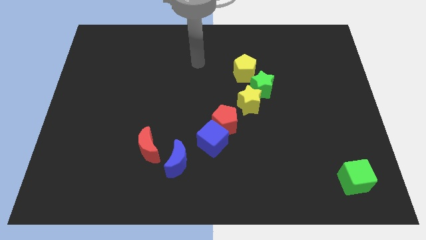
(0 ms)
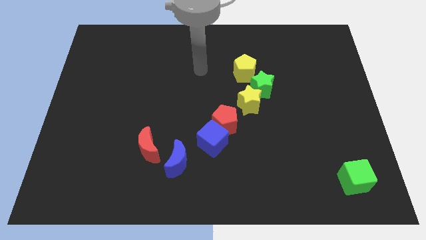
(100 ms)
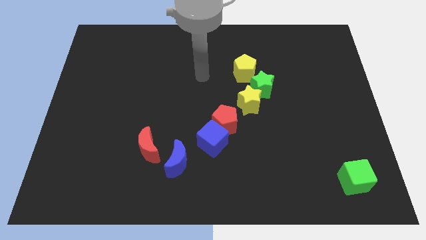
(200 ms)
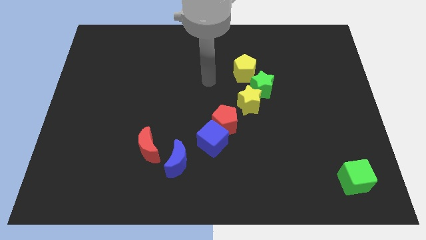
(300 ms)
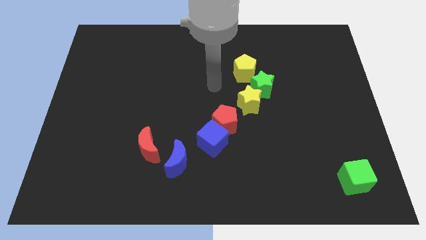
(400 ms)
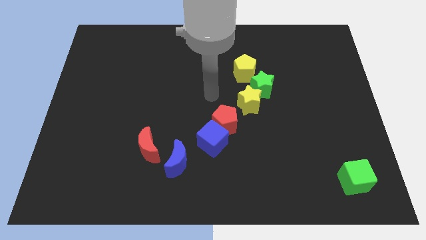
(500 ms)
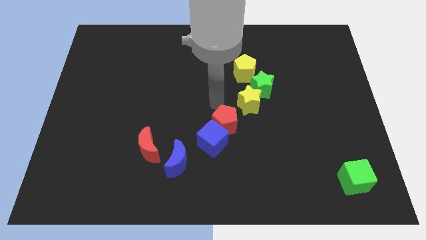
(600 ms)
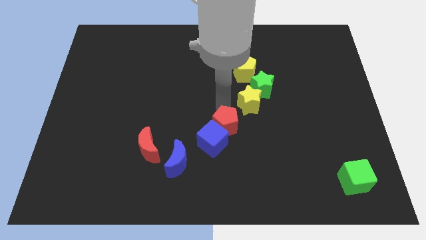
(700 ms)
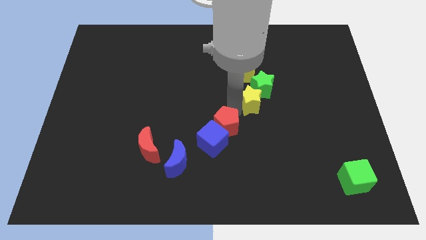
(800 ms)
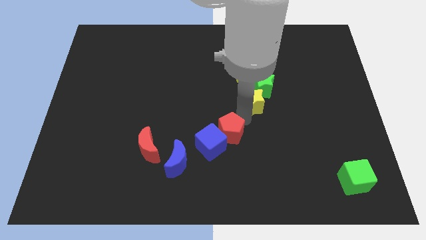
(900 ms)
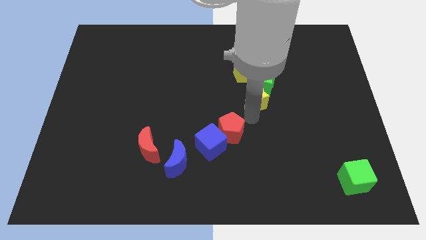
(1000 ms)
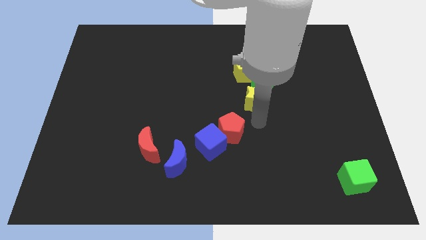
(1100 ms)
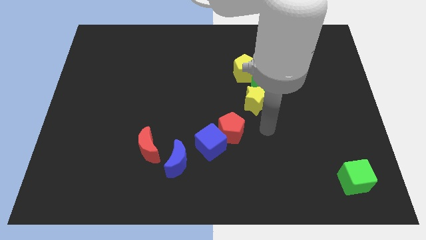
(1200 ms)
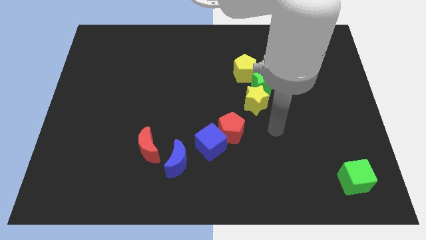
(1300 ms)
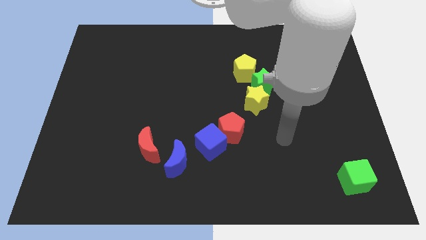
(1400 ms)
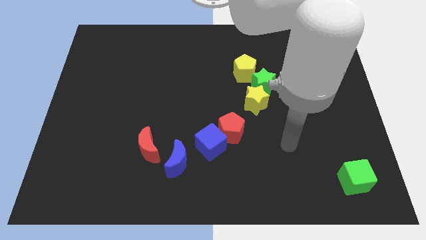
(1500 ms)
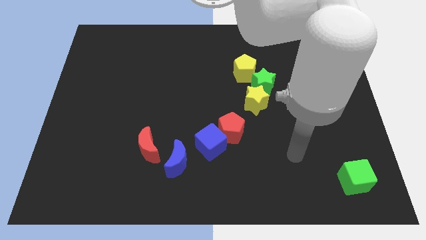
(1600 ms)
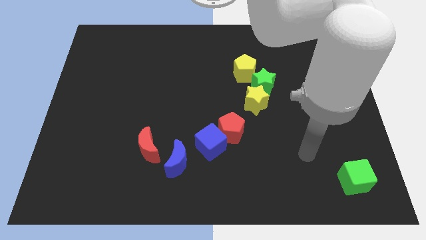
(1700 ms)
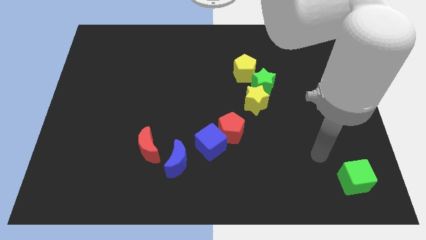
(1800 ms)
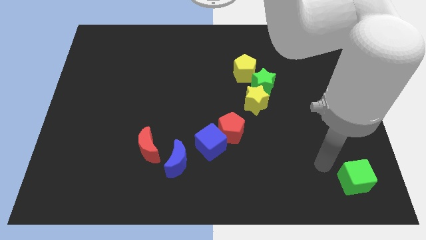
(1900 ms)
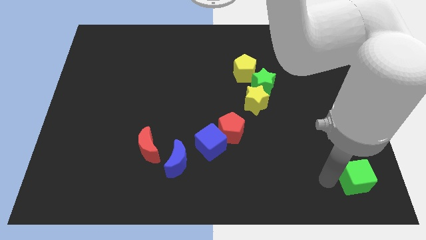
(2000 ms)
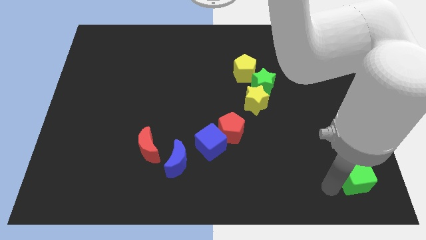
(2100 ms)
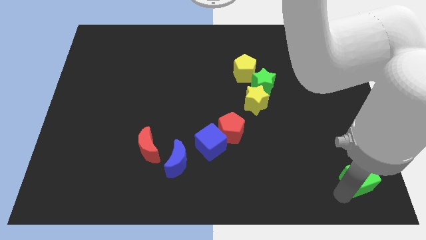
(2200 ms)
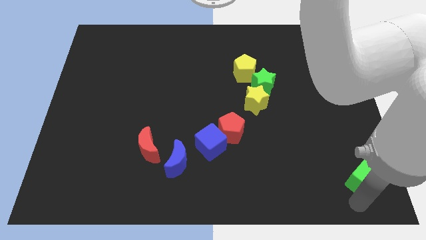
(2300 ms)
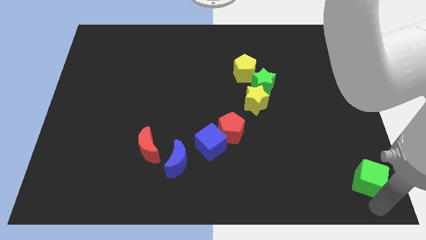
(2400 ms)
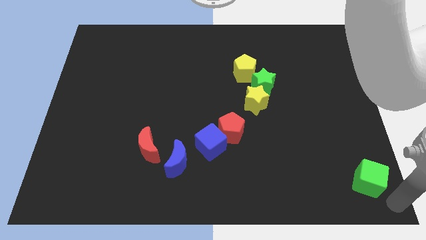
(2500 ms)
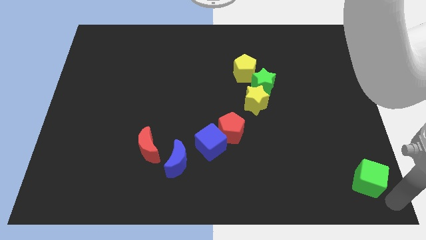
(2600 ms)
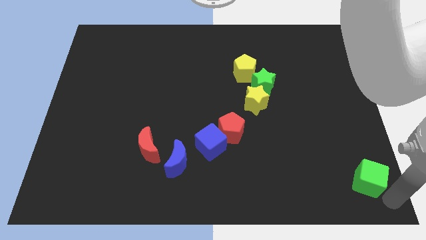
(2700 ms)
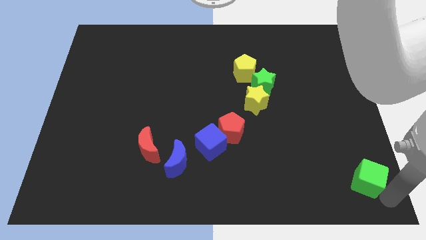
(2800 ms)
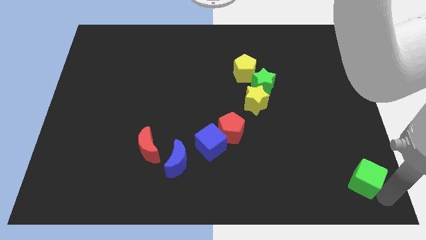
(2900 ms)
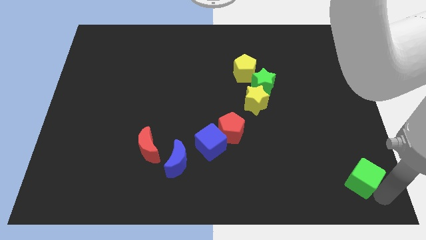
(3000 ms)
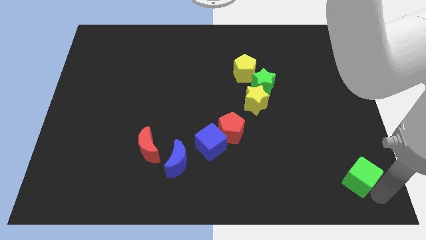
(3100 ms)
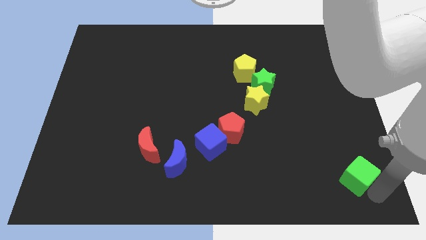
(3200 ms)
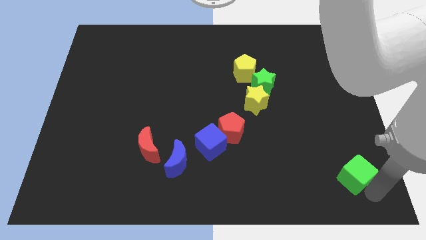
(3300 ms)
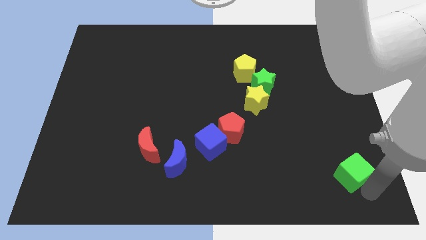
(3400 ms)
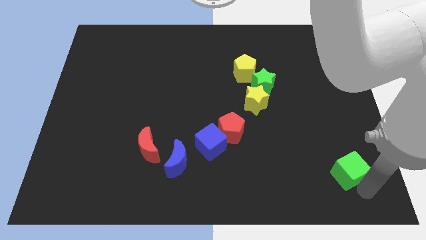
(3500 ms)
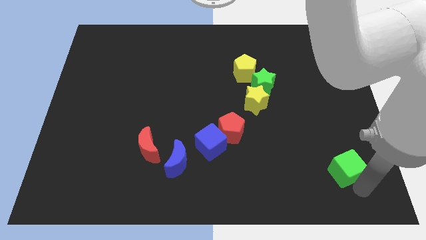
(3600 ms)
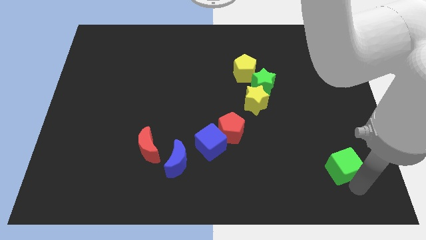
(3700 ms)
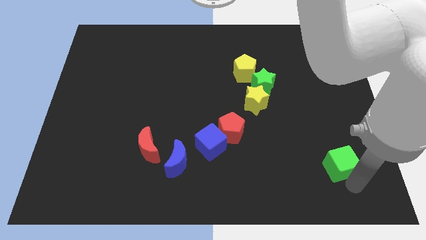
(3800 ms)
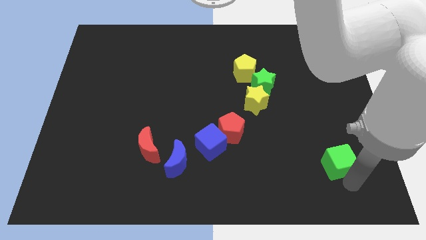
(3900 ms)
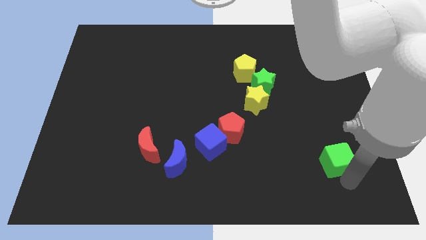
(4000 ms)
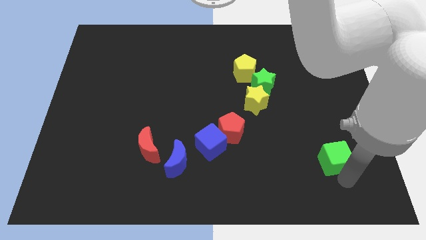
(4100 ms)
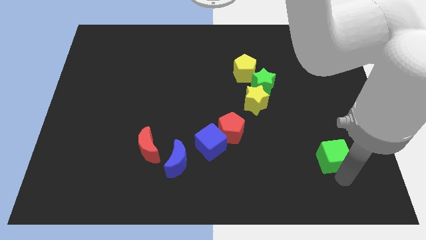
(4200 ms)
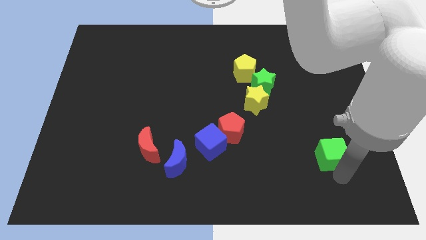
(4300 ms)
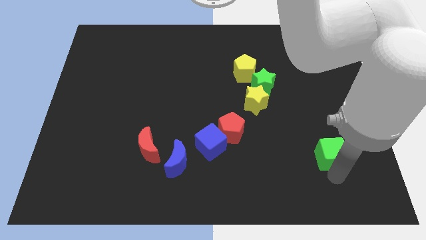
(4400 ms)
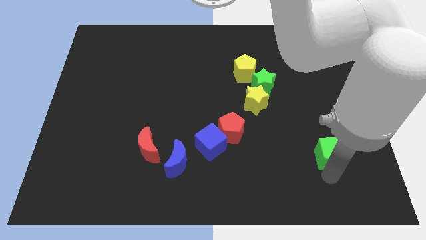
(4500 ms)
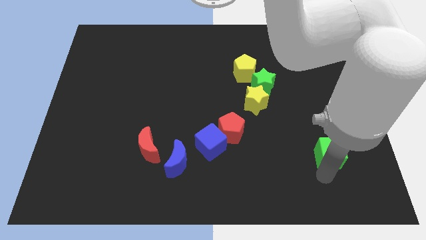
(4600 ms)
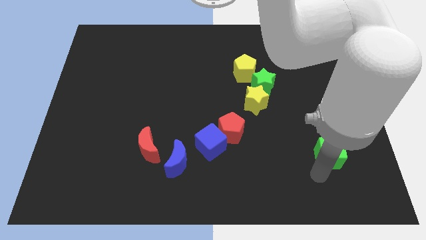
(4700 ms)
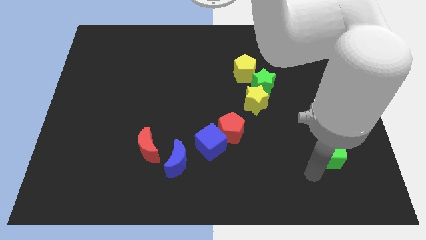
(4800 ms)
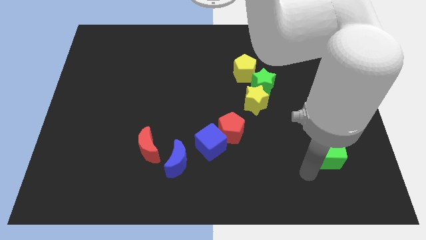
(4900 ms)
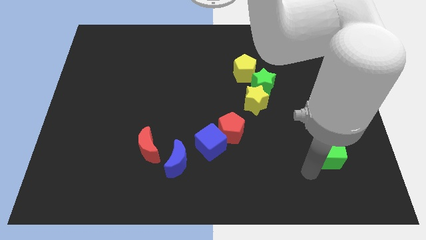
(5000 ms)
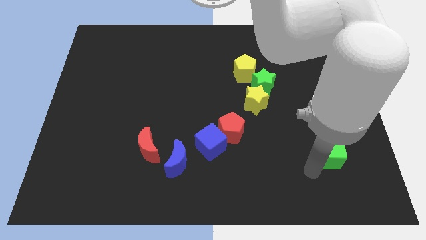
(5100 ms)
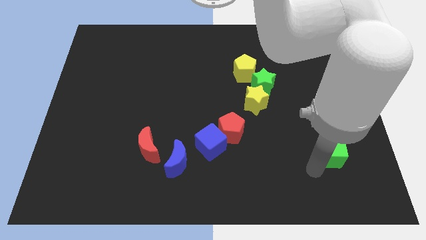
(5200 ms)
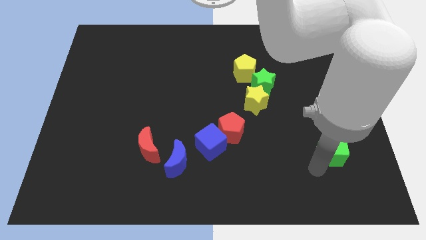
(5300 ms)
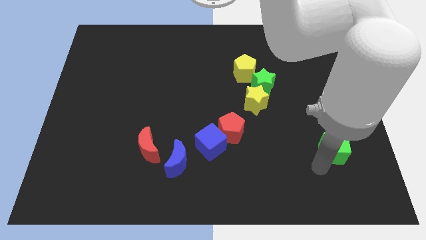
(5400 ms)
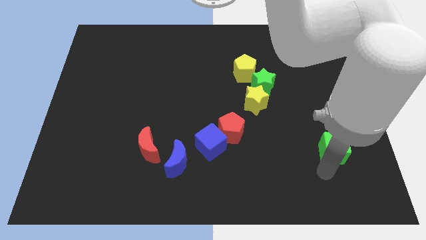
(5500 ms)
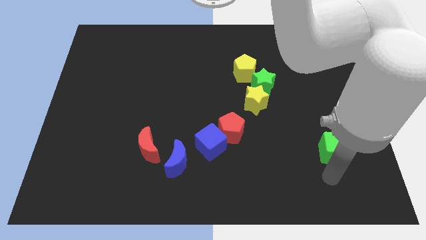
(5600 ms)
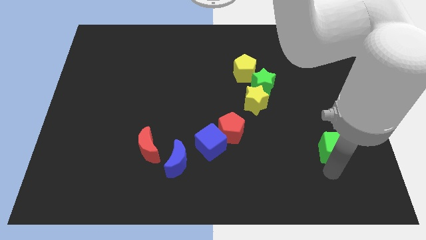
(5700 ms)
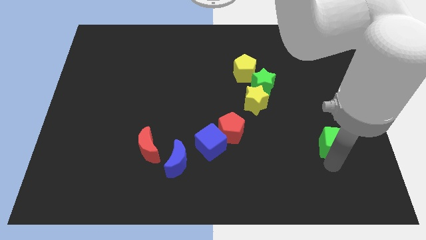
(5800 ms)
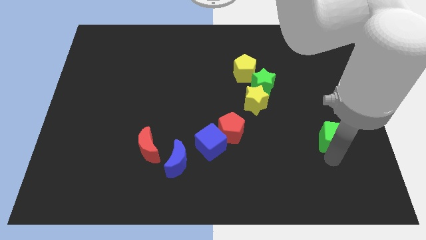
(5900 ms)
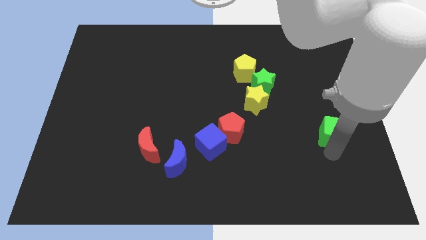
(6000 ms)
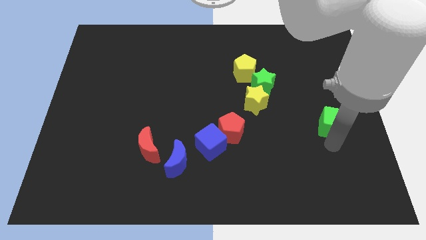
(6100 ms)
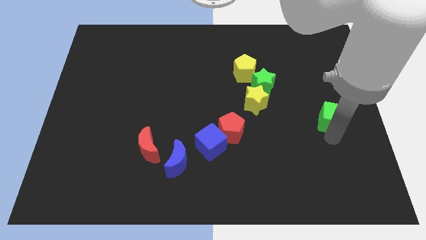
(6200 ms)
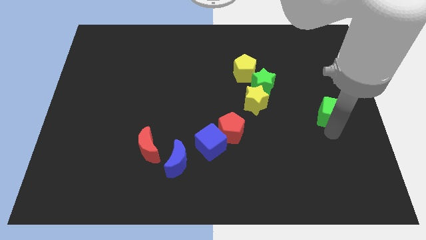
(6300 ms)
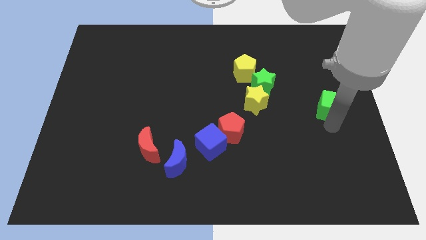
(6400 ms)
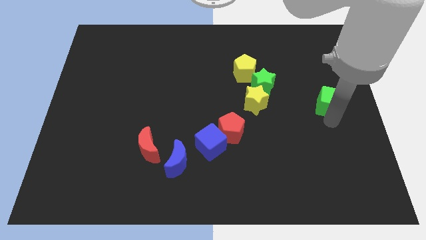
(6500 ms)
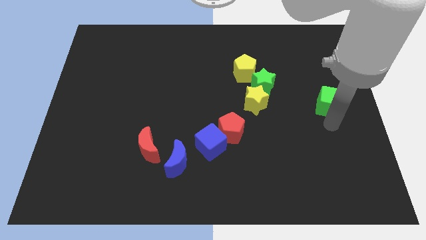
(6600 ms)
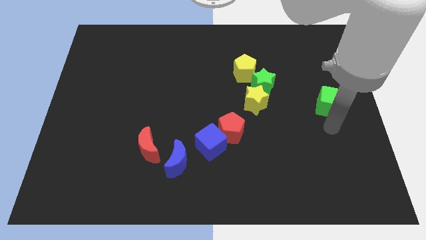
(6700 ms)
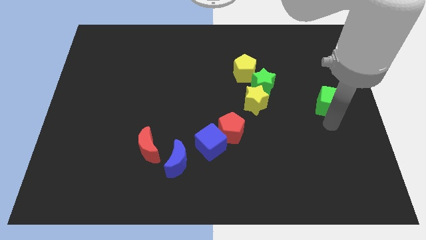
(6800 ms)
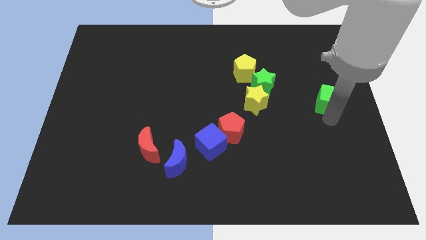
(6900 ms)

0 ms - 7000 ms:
push the green cube up

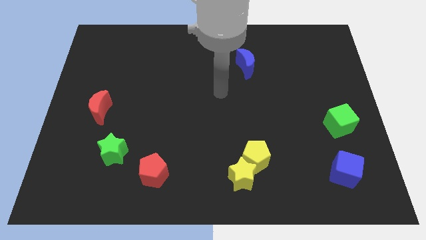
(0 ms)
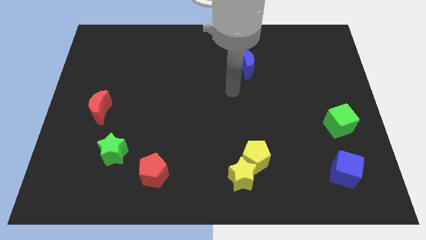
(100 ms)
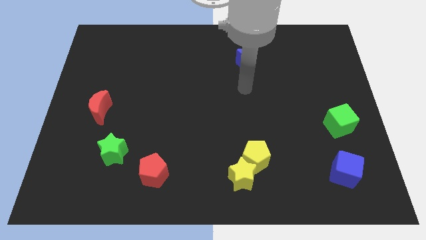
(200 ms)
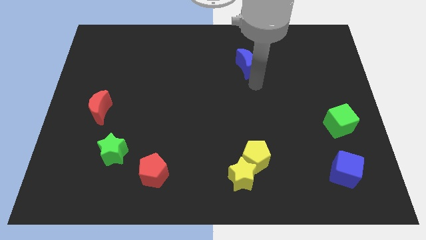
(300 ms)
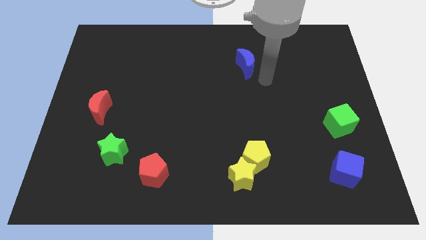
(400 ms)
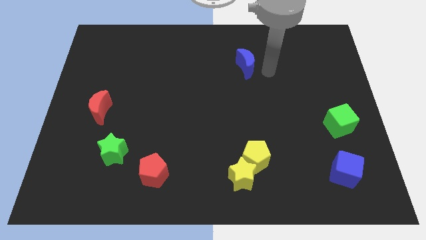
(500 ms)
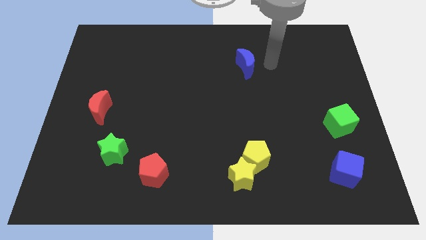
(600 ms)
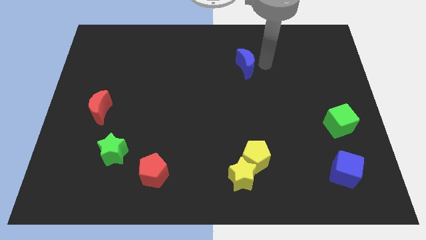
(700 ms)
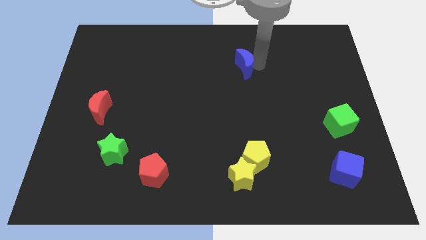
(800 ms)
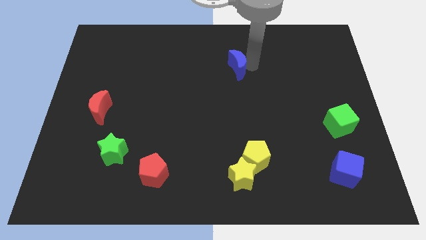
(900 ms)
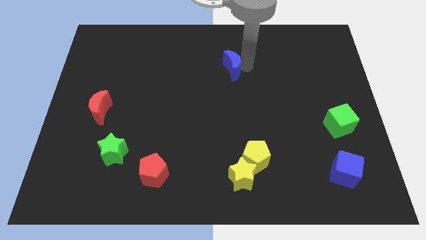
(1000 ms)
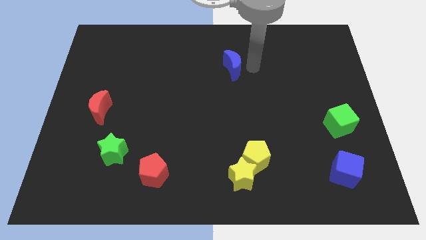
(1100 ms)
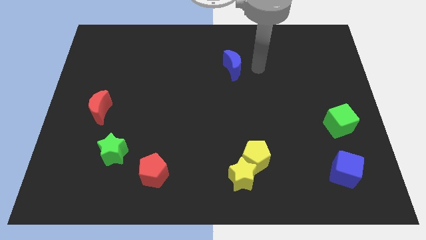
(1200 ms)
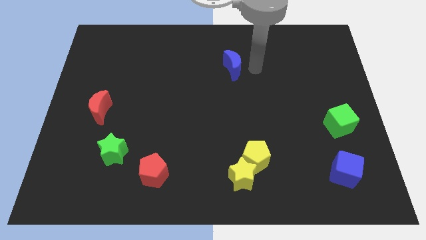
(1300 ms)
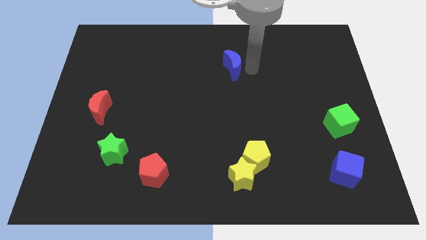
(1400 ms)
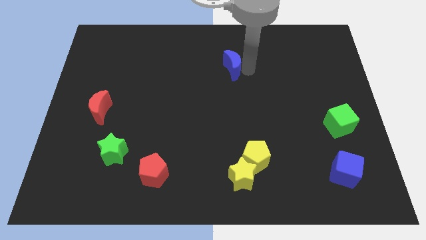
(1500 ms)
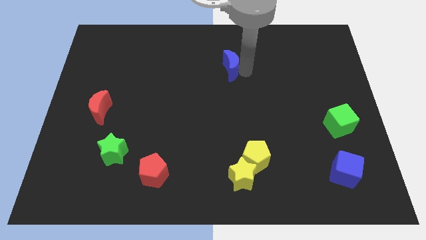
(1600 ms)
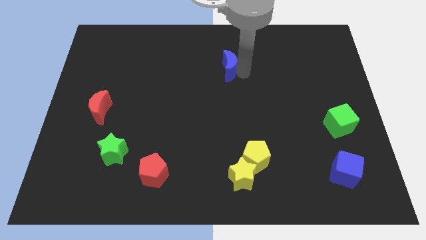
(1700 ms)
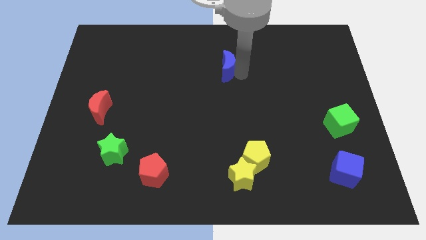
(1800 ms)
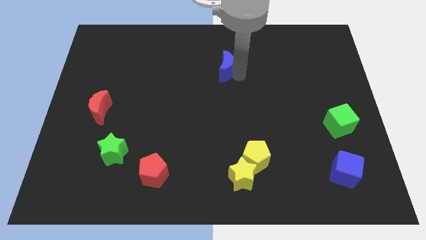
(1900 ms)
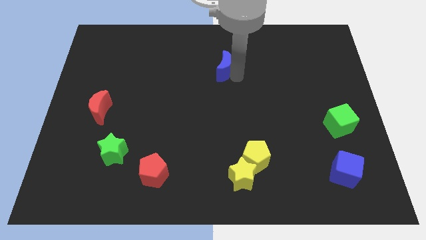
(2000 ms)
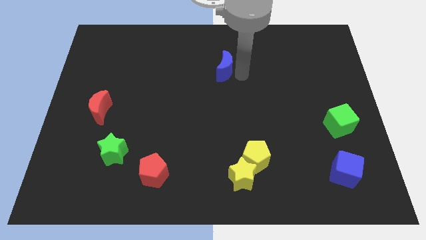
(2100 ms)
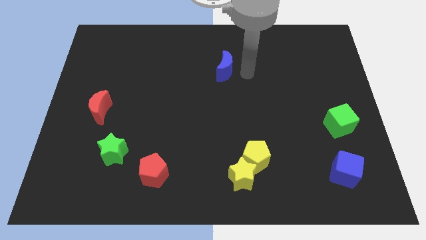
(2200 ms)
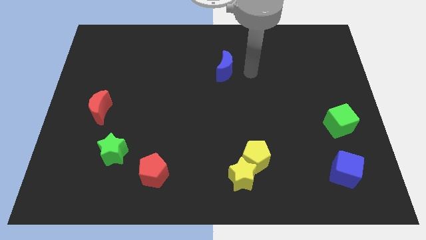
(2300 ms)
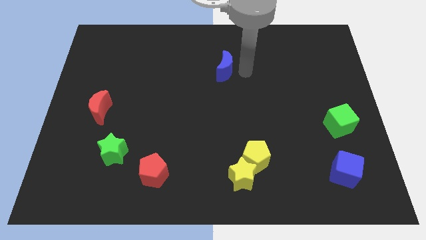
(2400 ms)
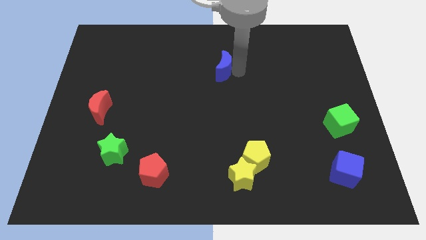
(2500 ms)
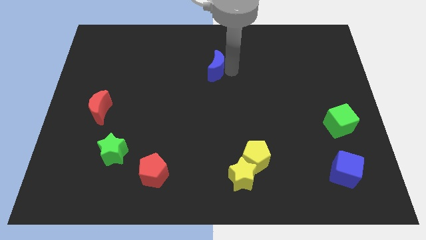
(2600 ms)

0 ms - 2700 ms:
push the blue moon to the left a little bit
